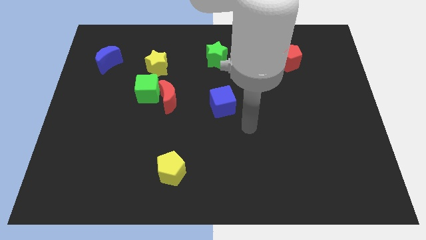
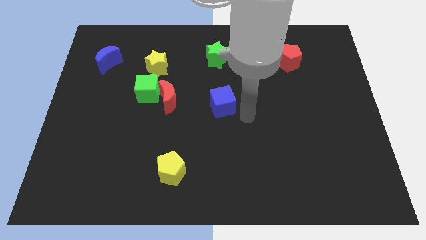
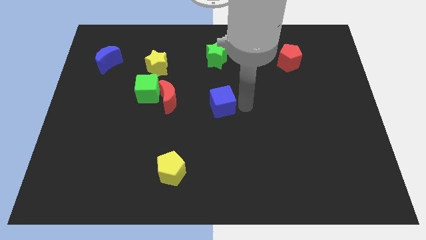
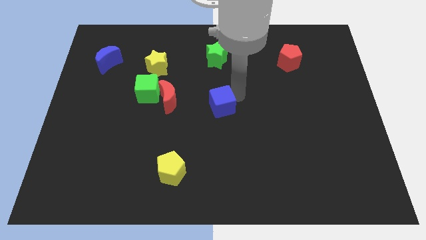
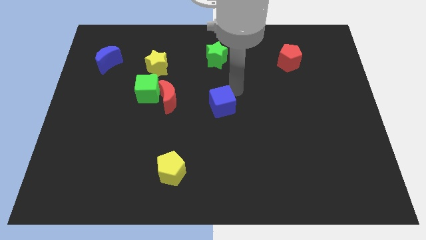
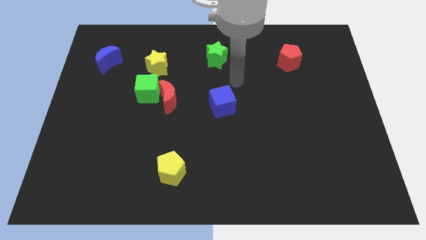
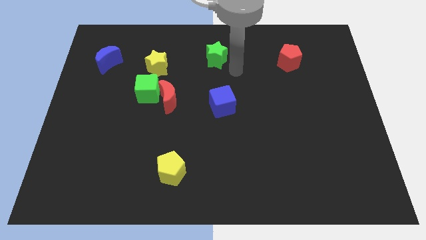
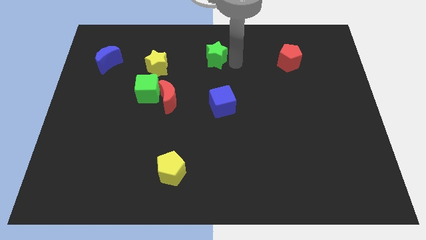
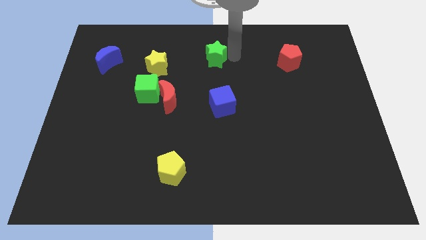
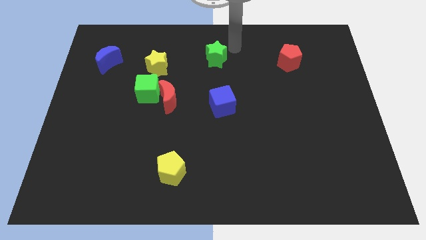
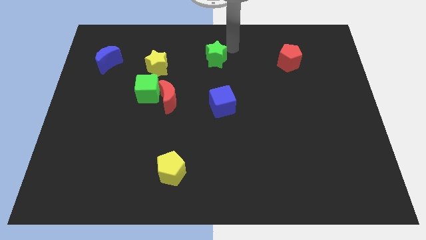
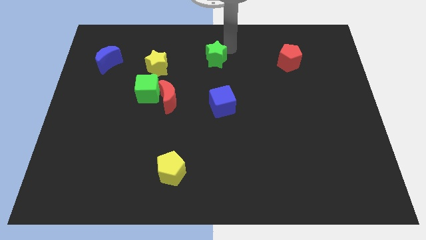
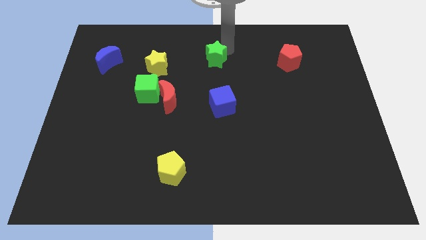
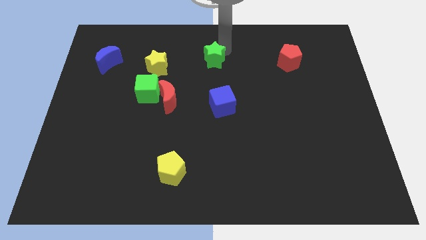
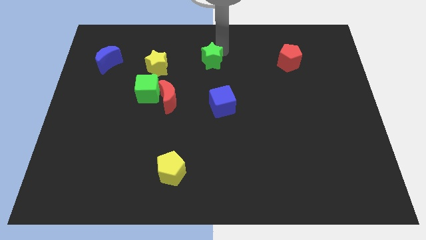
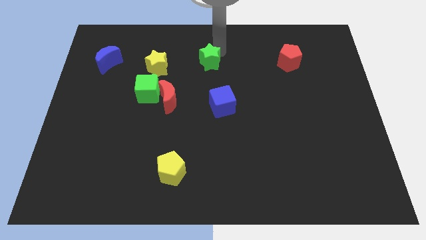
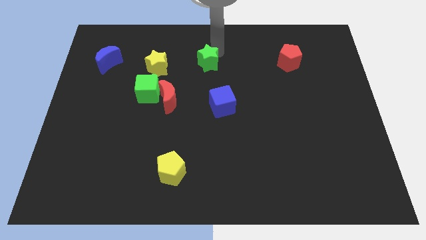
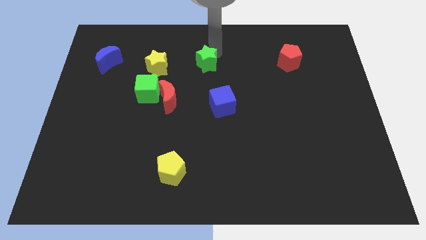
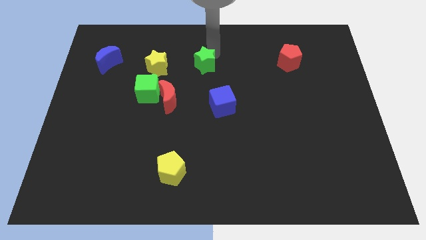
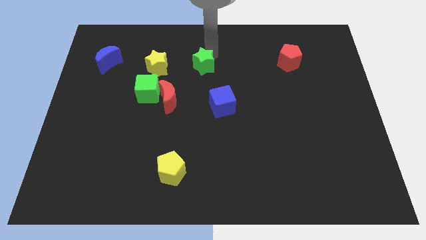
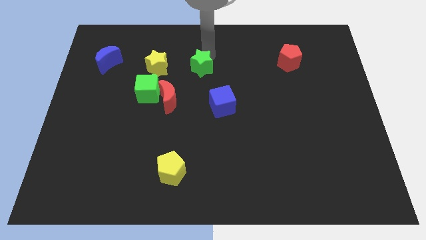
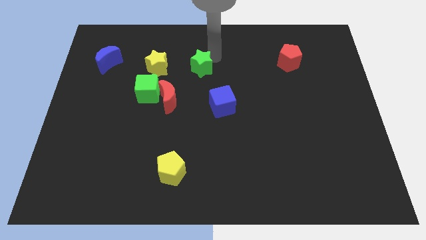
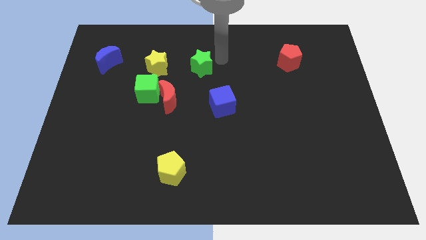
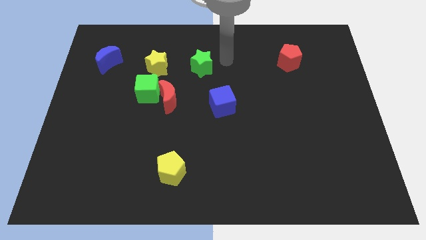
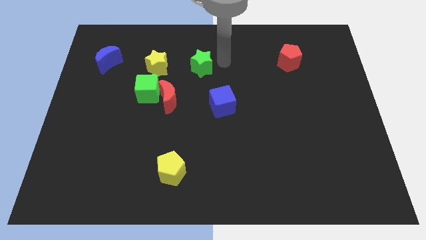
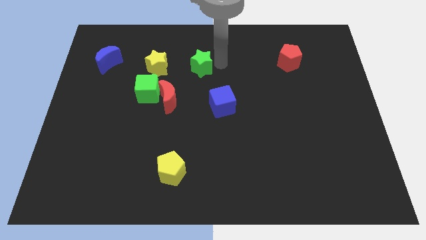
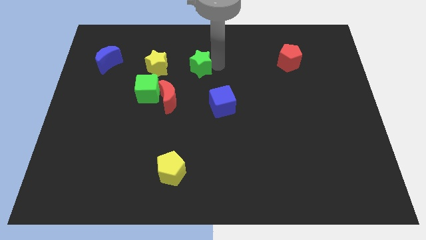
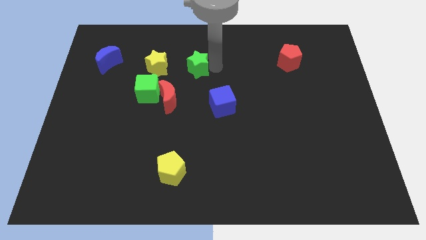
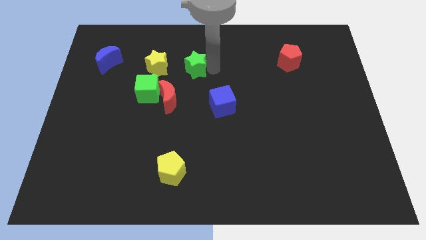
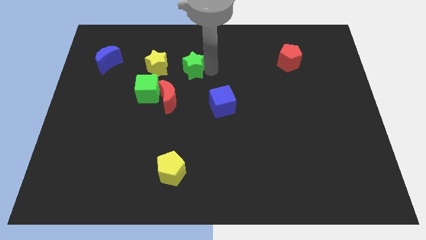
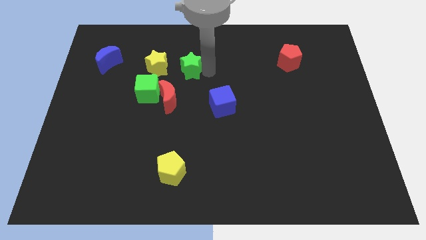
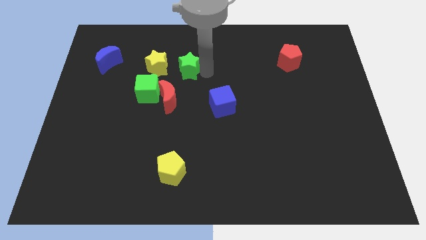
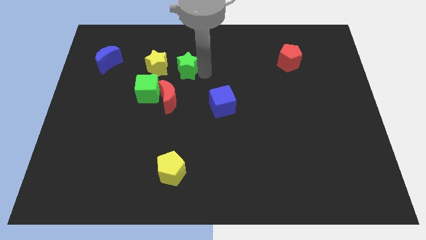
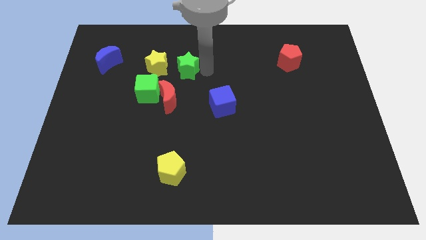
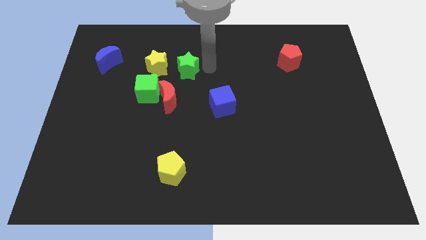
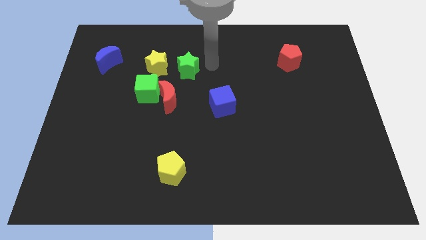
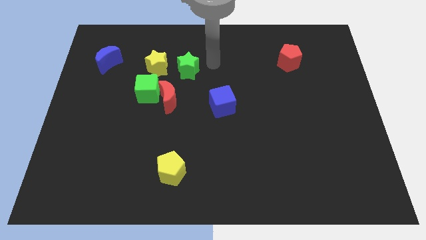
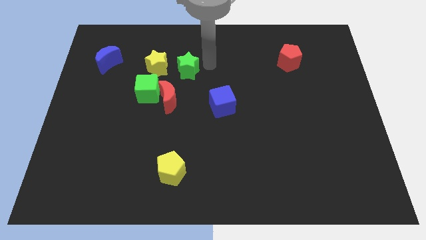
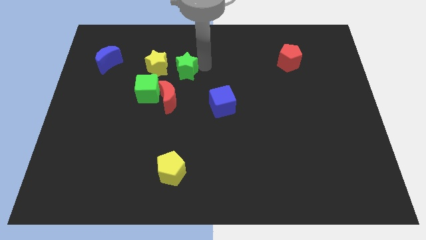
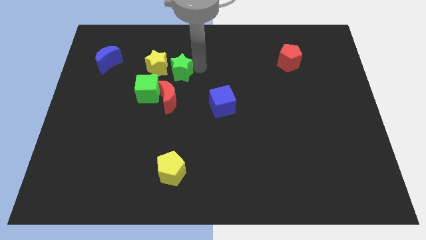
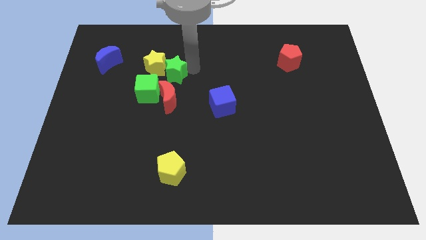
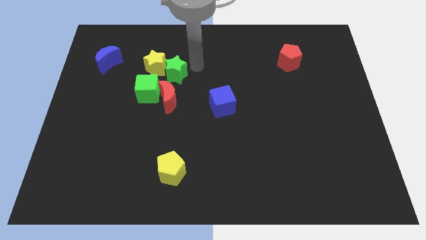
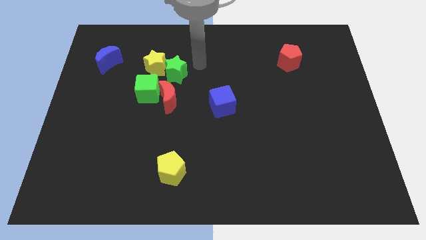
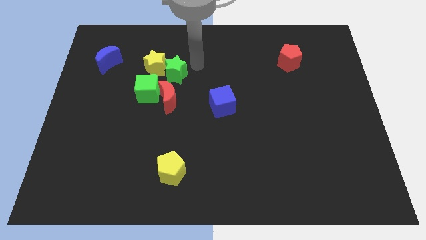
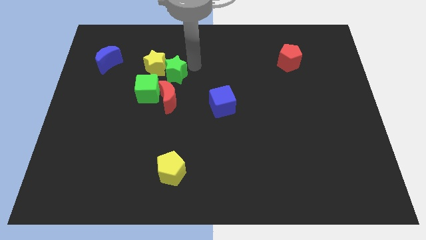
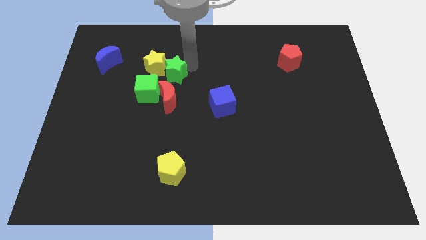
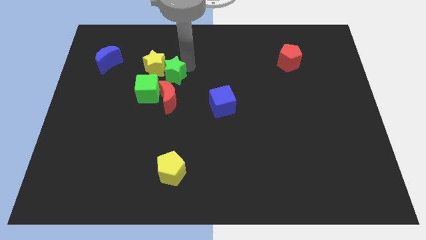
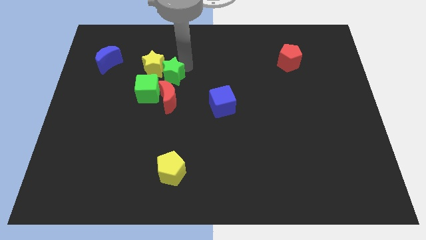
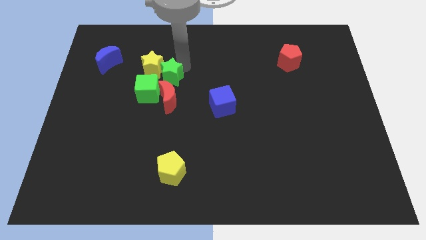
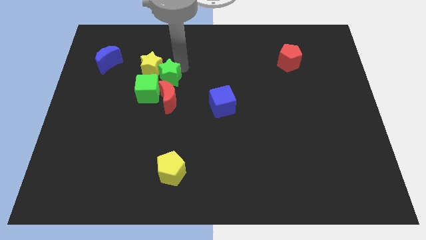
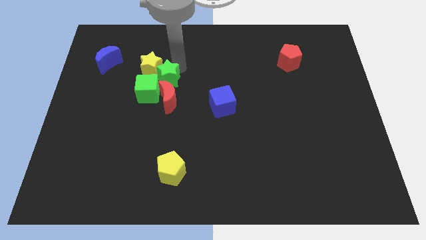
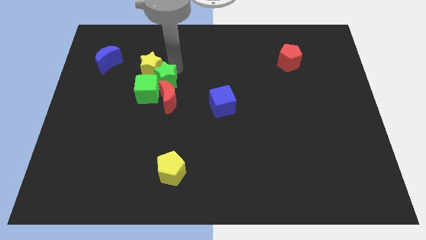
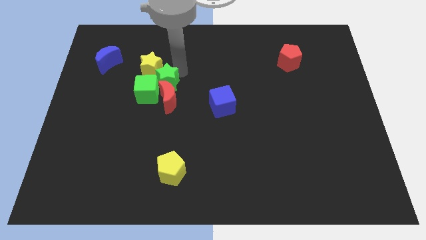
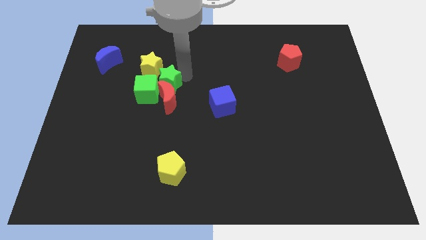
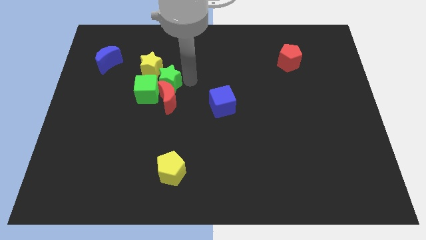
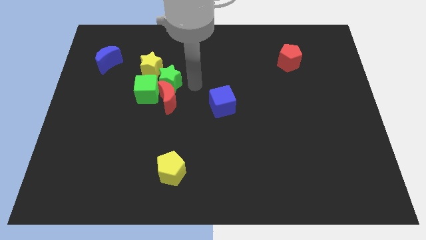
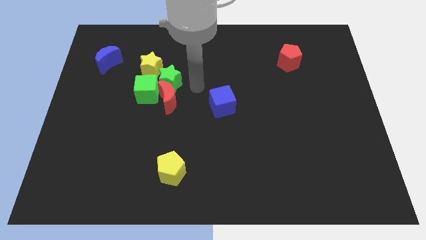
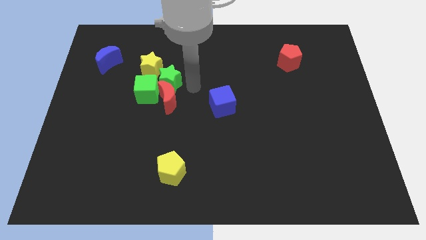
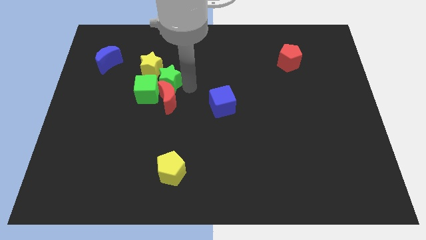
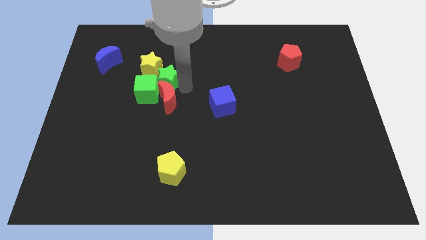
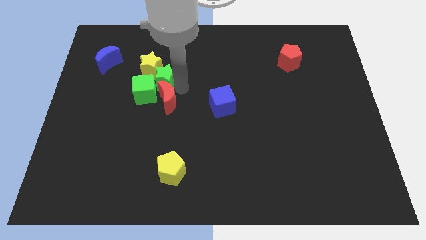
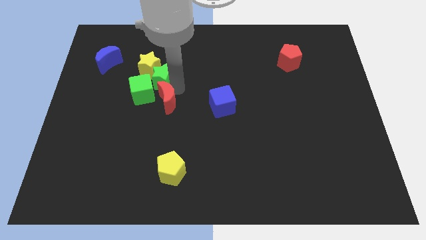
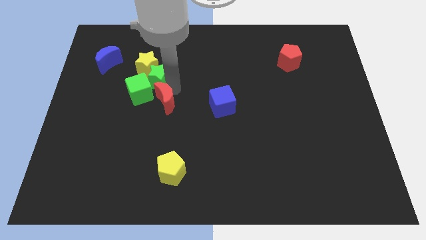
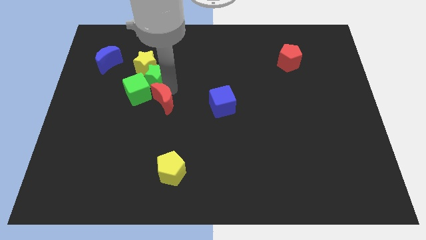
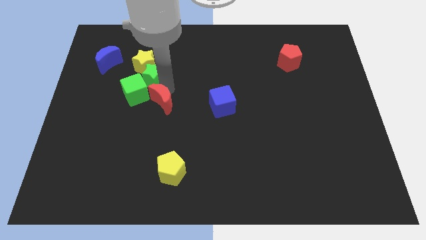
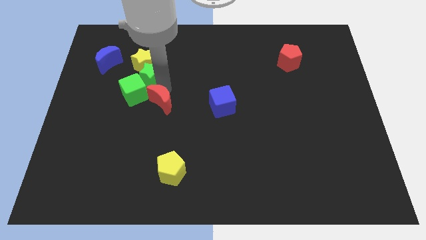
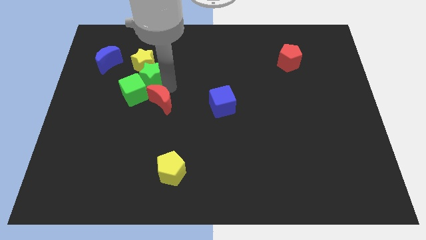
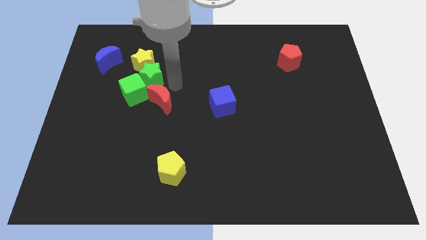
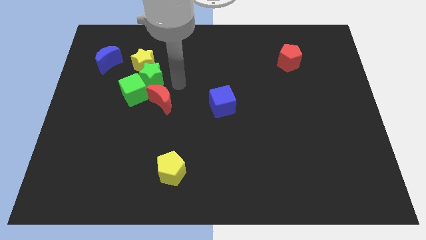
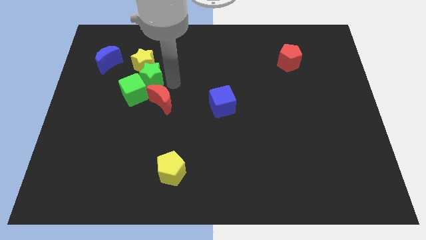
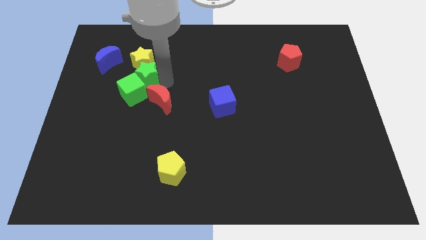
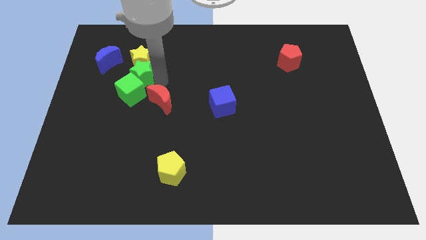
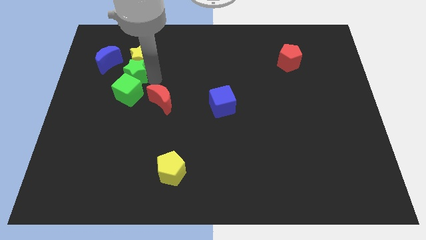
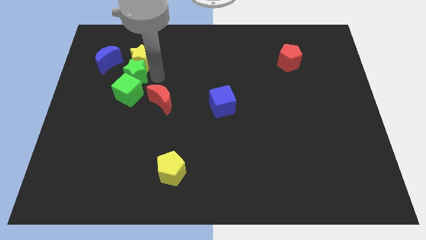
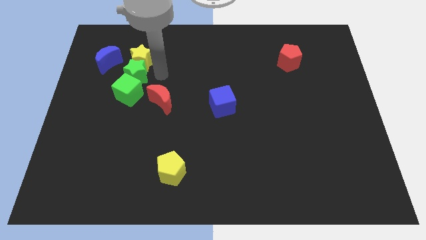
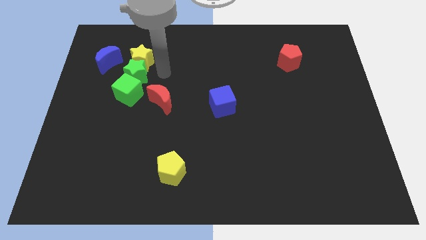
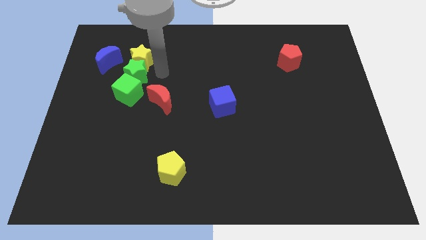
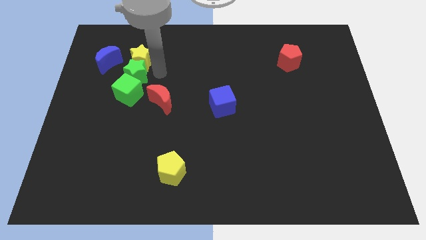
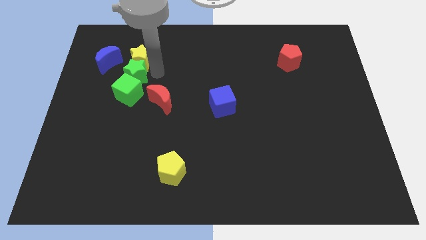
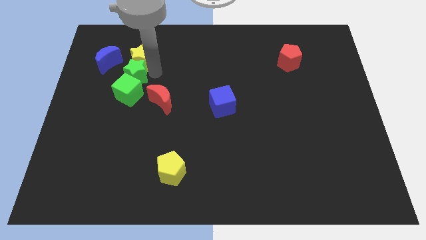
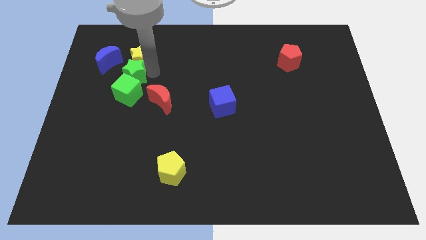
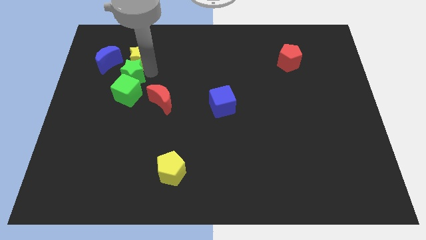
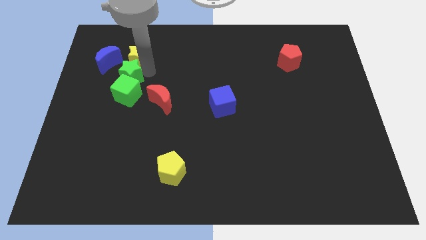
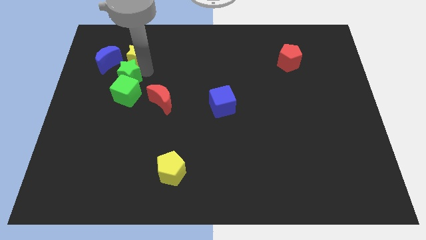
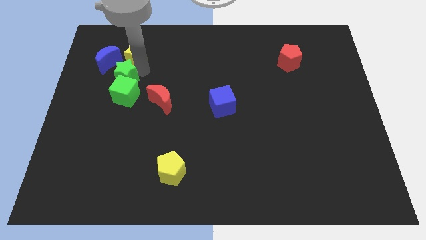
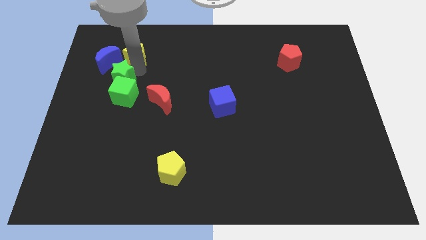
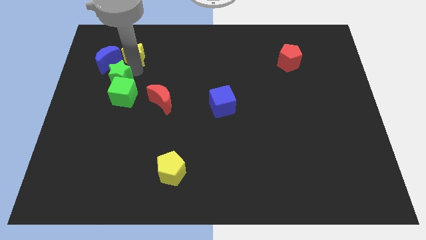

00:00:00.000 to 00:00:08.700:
slide the green star to the bottom of the blue moon
